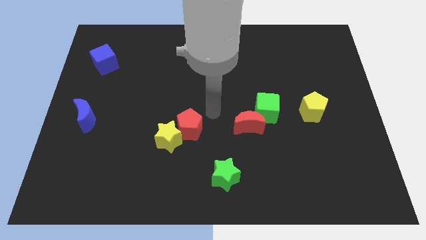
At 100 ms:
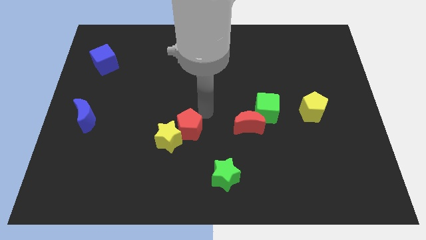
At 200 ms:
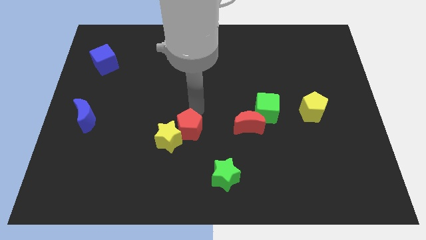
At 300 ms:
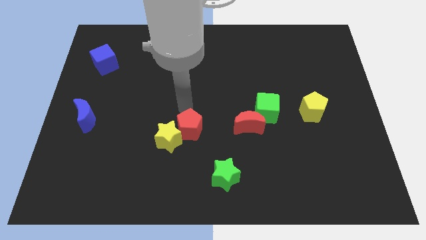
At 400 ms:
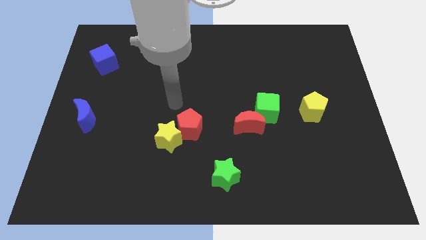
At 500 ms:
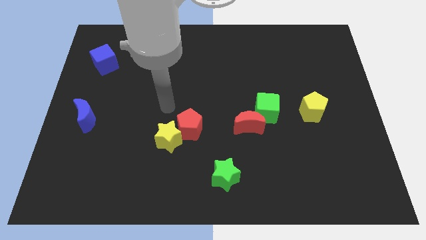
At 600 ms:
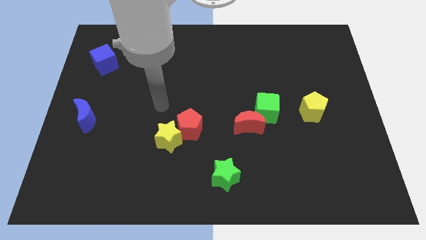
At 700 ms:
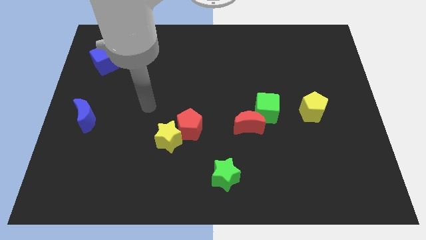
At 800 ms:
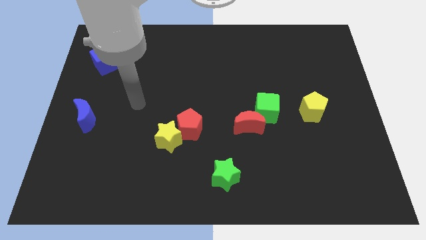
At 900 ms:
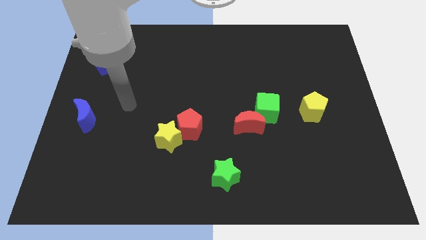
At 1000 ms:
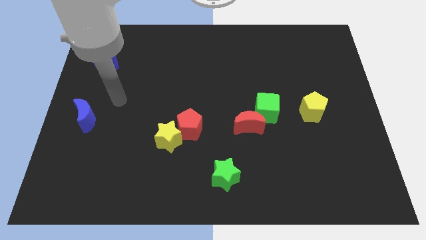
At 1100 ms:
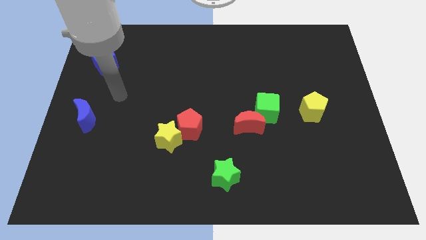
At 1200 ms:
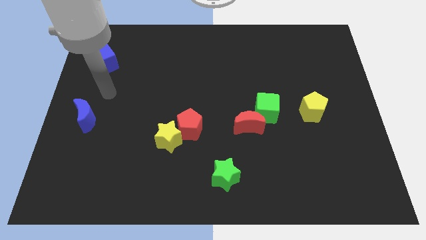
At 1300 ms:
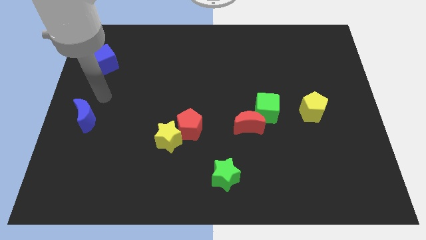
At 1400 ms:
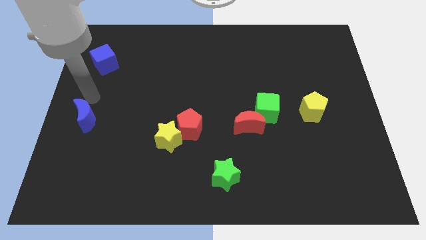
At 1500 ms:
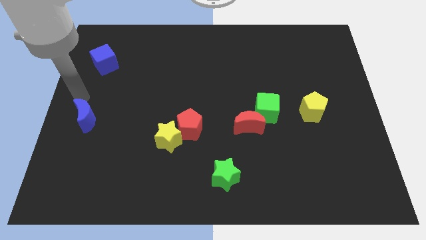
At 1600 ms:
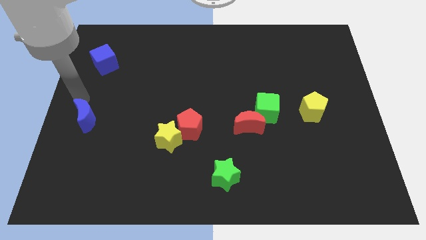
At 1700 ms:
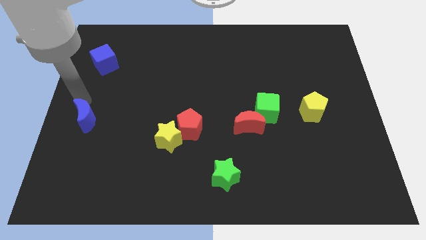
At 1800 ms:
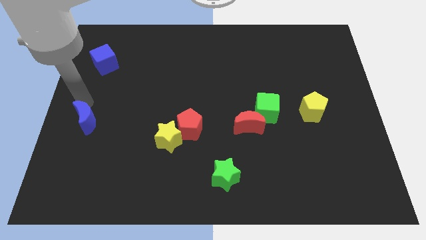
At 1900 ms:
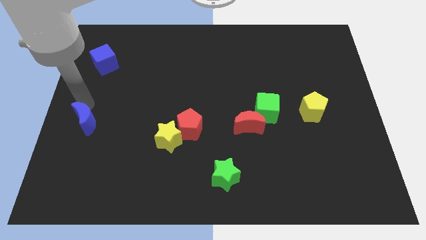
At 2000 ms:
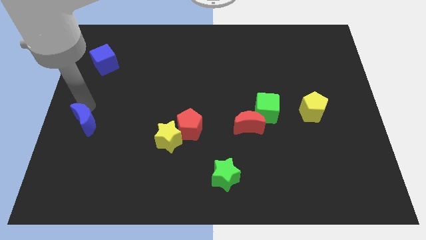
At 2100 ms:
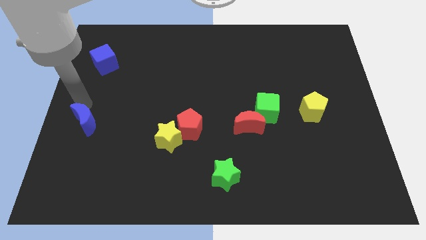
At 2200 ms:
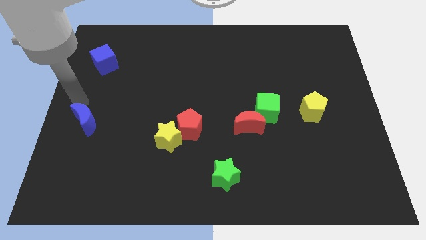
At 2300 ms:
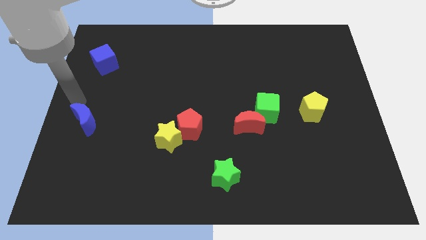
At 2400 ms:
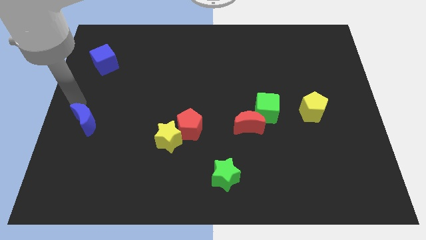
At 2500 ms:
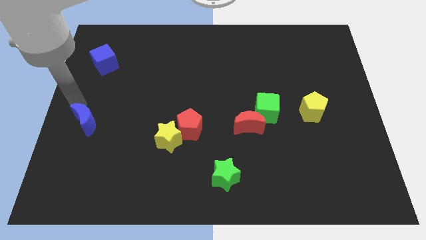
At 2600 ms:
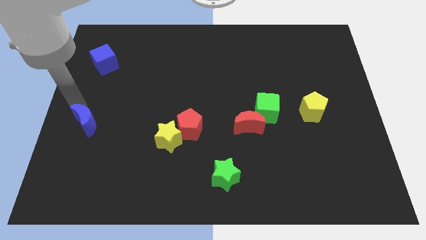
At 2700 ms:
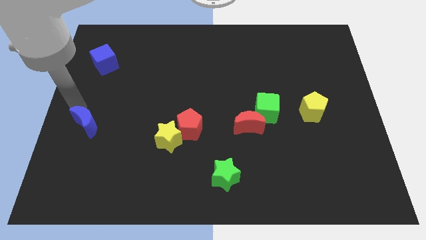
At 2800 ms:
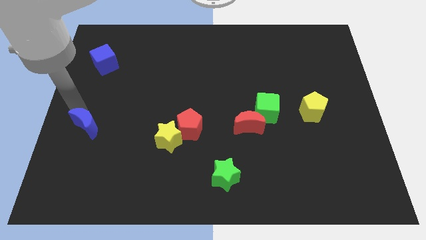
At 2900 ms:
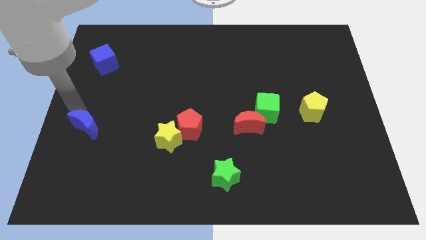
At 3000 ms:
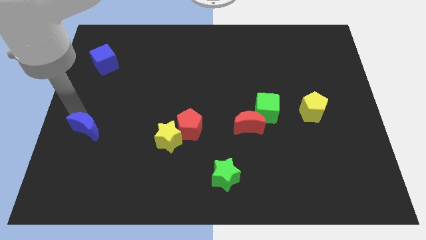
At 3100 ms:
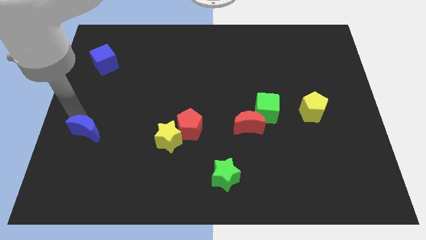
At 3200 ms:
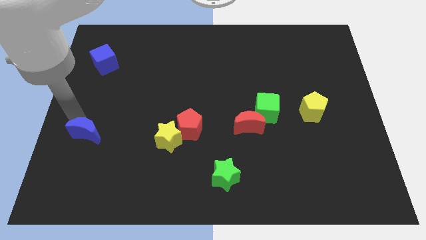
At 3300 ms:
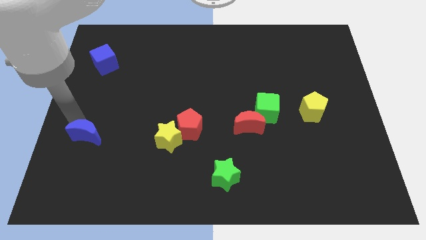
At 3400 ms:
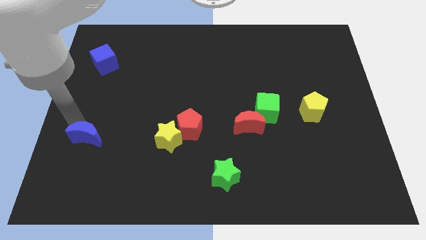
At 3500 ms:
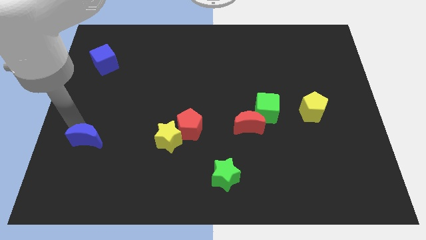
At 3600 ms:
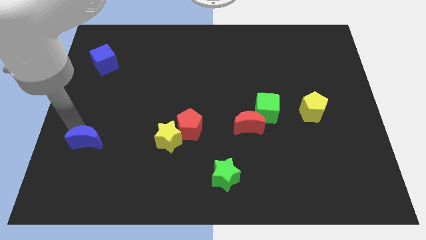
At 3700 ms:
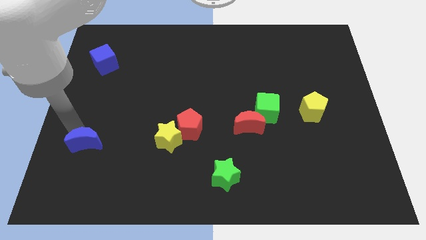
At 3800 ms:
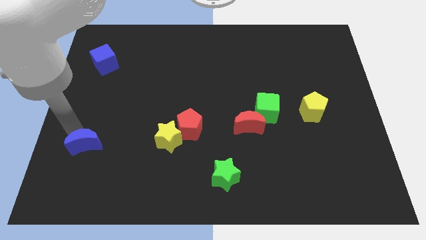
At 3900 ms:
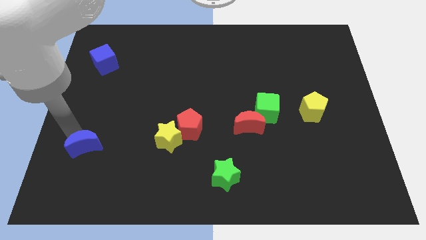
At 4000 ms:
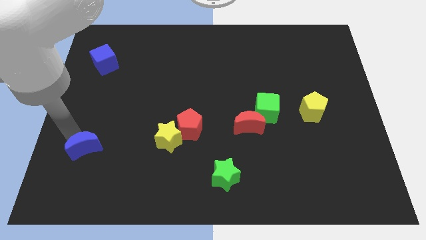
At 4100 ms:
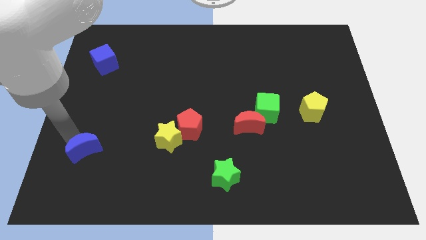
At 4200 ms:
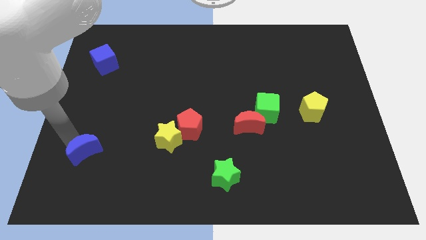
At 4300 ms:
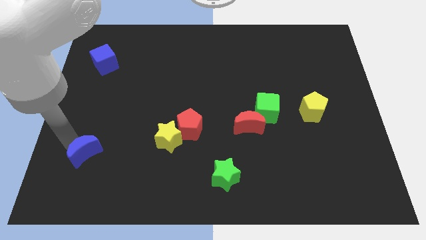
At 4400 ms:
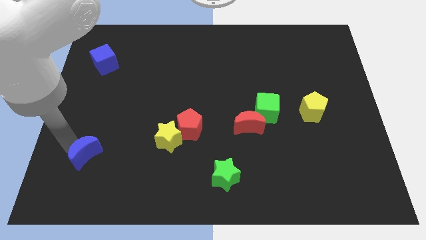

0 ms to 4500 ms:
slightly push the blue moon downwards and right

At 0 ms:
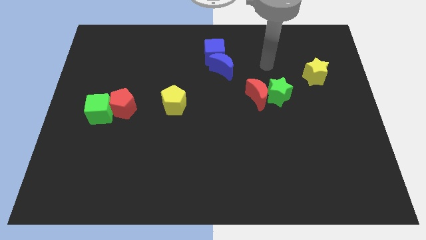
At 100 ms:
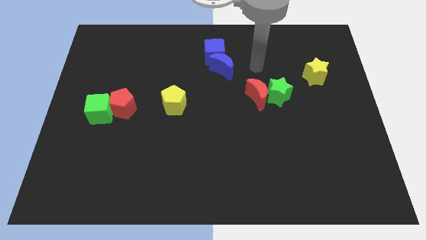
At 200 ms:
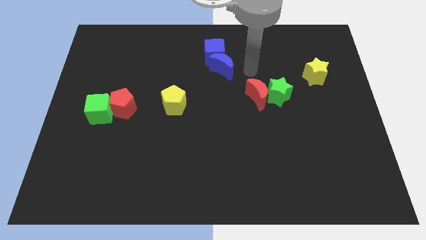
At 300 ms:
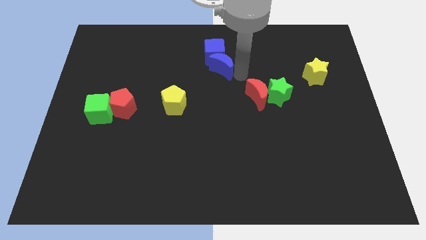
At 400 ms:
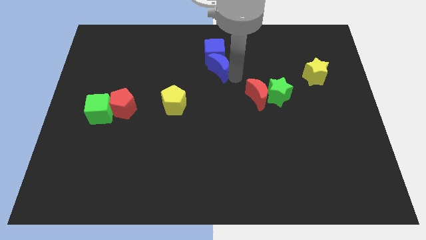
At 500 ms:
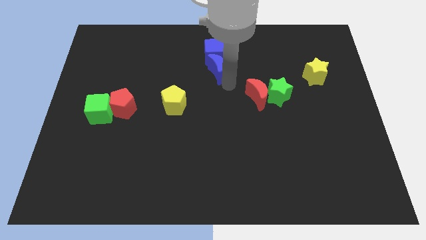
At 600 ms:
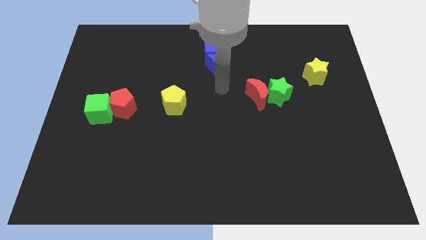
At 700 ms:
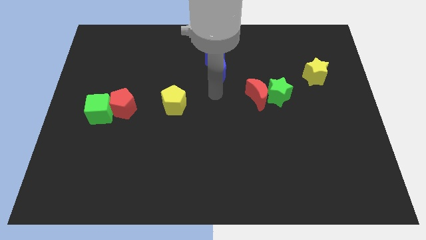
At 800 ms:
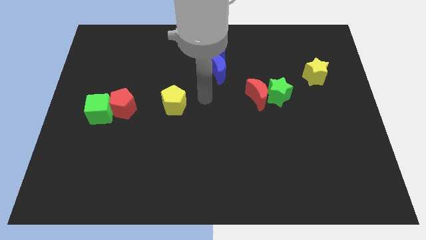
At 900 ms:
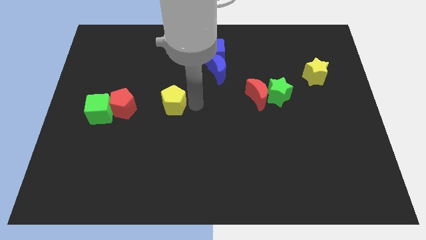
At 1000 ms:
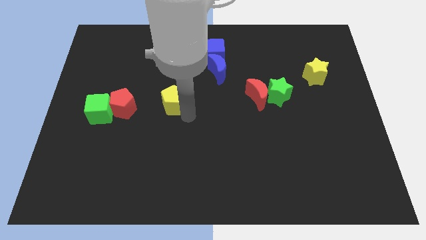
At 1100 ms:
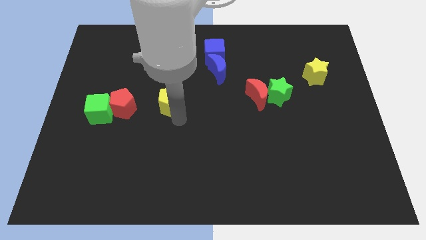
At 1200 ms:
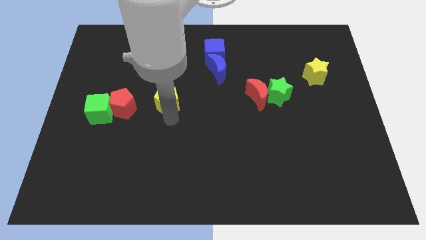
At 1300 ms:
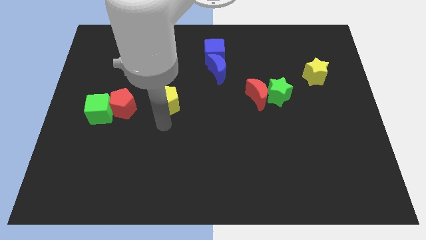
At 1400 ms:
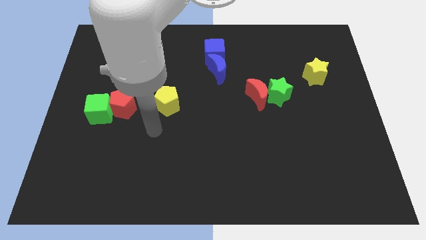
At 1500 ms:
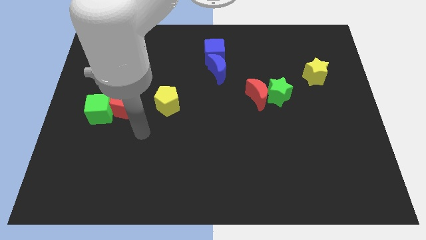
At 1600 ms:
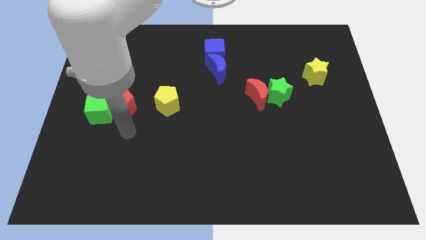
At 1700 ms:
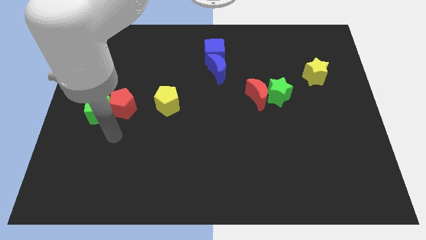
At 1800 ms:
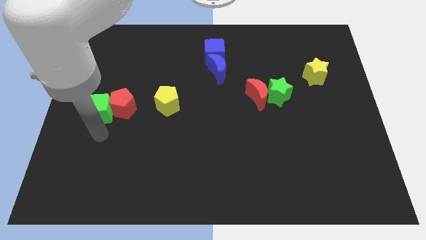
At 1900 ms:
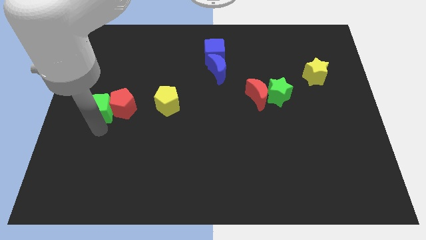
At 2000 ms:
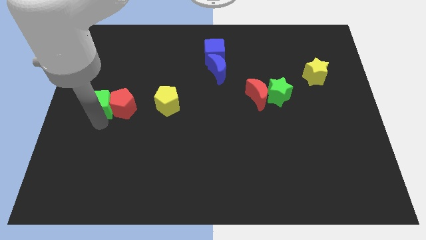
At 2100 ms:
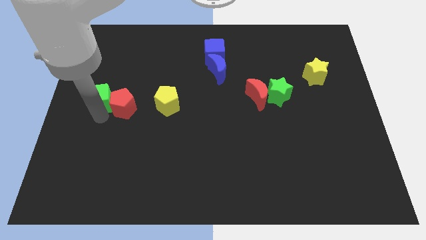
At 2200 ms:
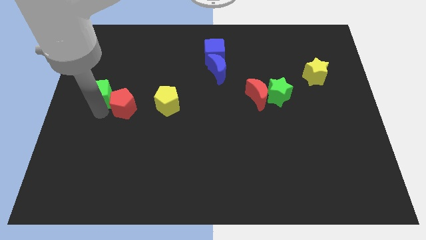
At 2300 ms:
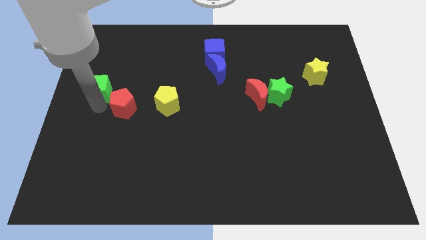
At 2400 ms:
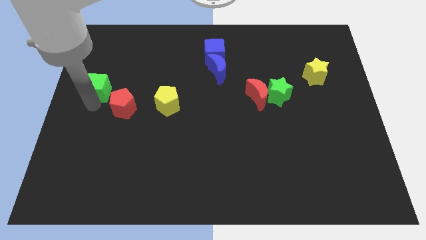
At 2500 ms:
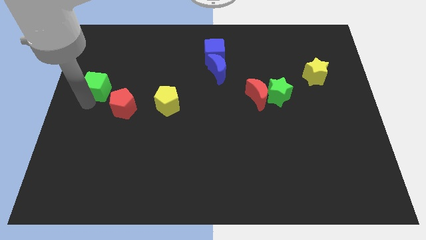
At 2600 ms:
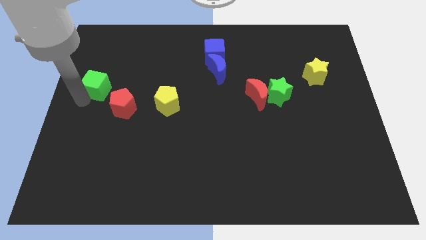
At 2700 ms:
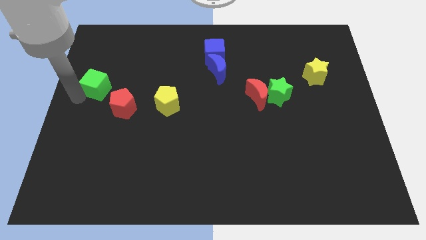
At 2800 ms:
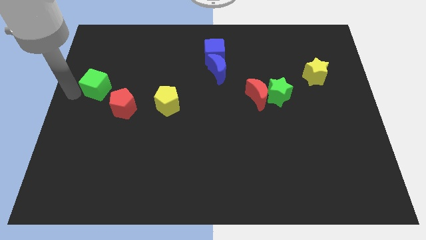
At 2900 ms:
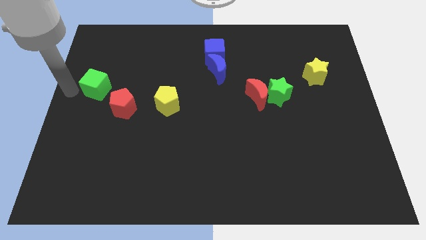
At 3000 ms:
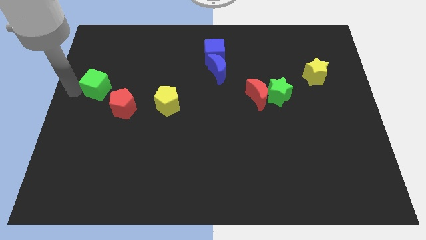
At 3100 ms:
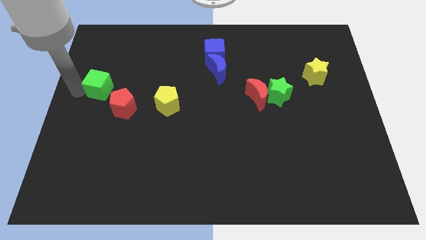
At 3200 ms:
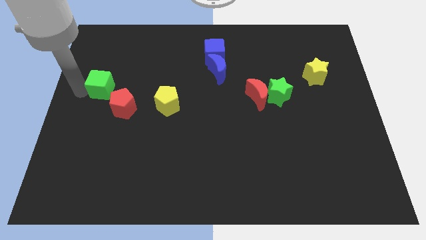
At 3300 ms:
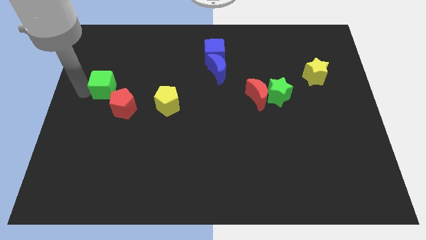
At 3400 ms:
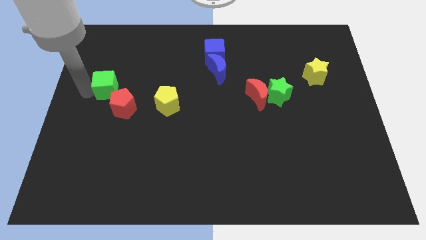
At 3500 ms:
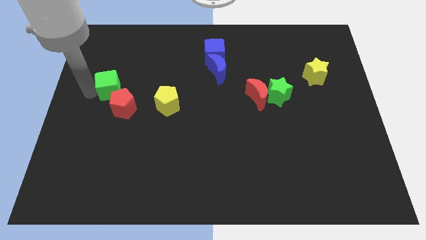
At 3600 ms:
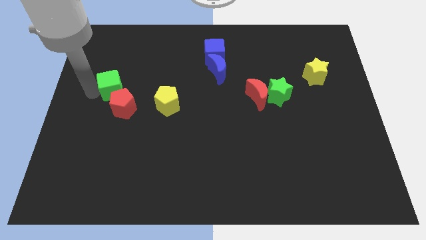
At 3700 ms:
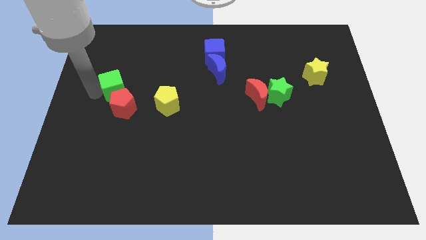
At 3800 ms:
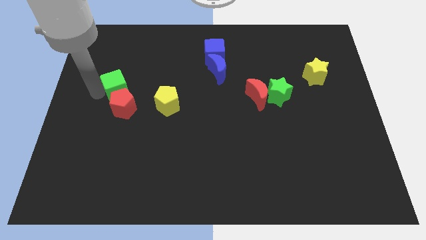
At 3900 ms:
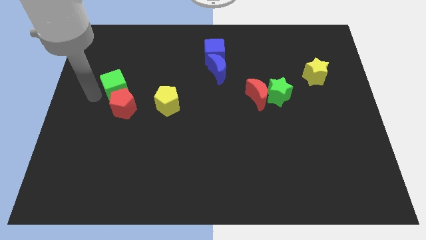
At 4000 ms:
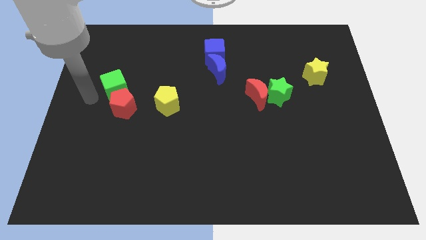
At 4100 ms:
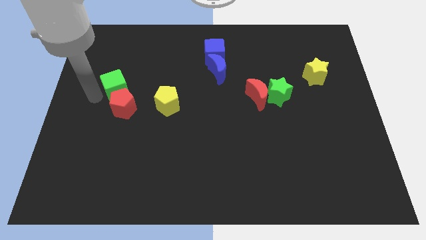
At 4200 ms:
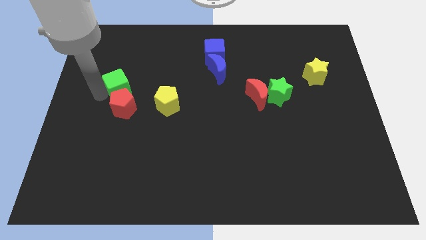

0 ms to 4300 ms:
slightly slide the green cube diagonally upwards and to the right
